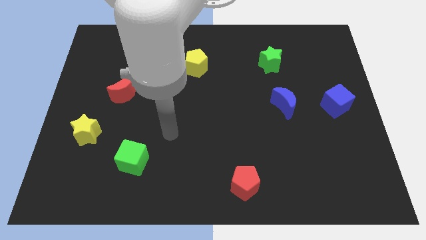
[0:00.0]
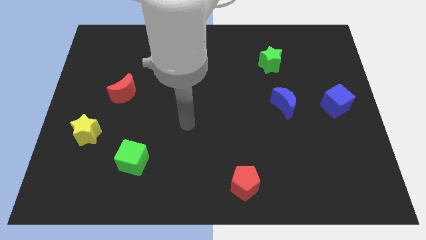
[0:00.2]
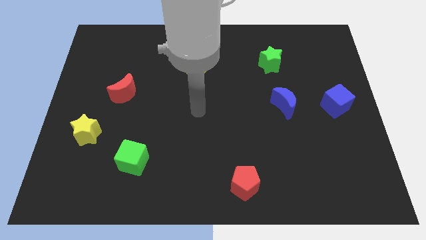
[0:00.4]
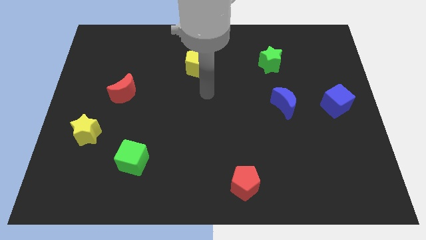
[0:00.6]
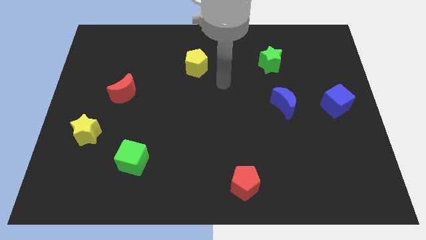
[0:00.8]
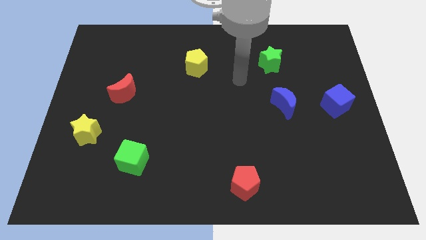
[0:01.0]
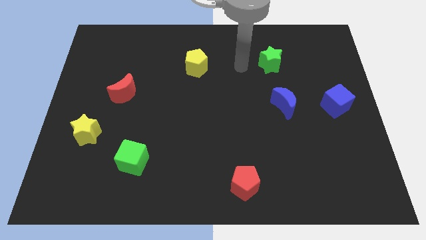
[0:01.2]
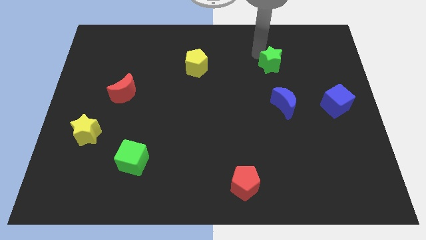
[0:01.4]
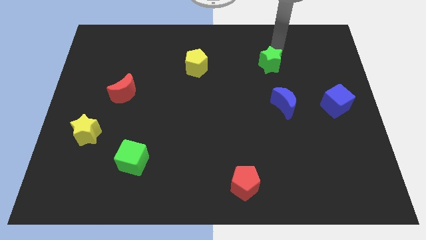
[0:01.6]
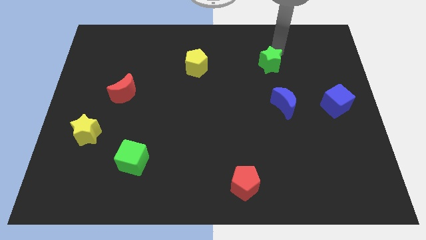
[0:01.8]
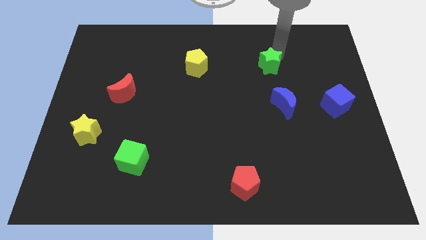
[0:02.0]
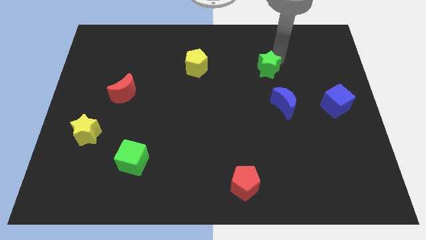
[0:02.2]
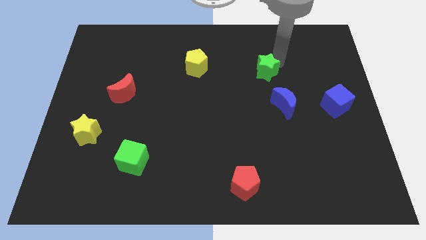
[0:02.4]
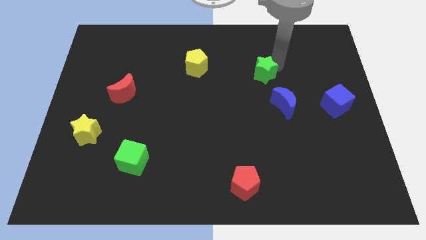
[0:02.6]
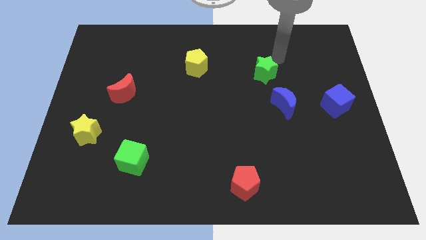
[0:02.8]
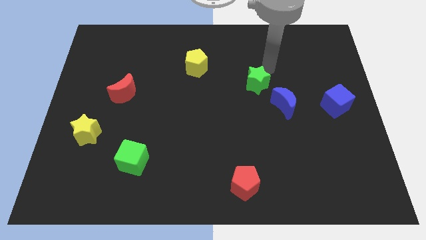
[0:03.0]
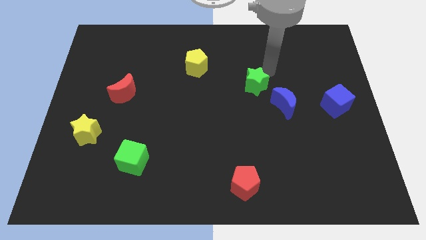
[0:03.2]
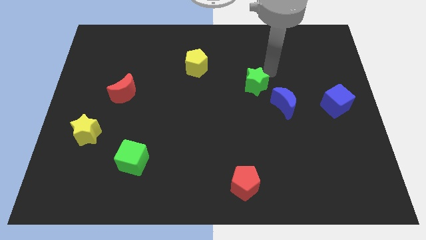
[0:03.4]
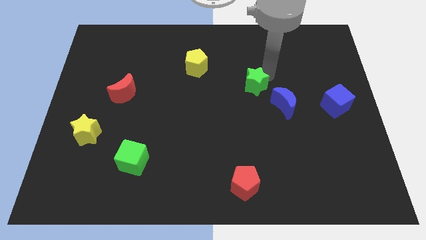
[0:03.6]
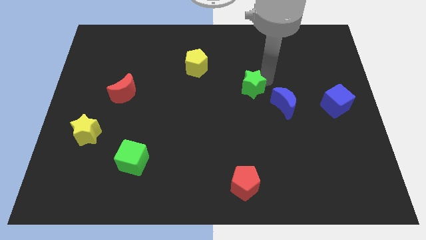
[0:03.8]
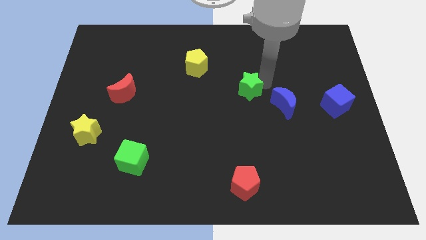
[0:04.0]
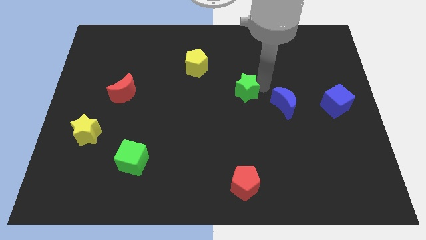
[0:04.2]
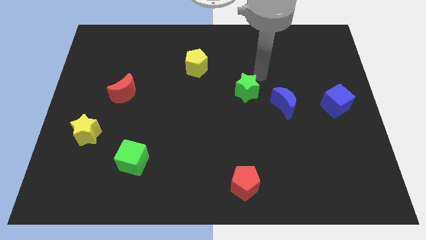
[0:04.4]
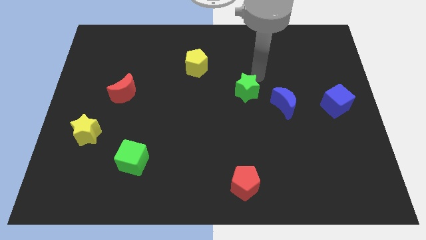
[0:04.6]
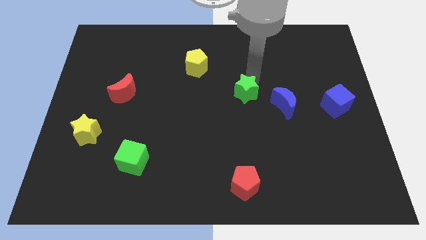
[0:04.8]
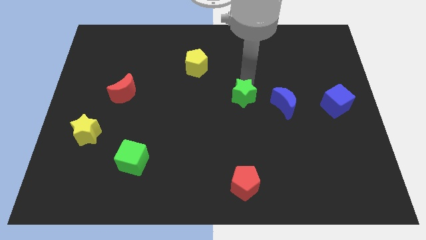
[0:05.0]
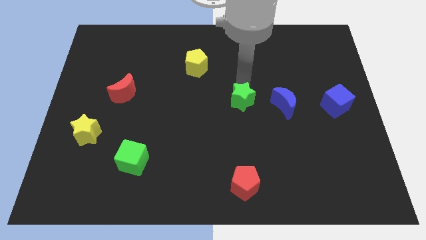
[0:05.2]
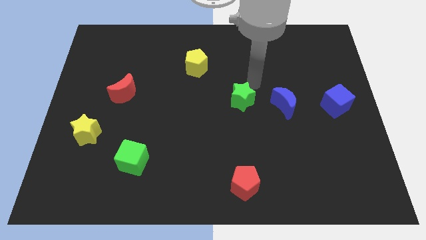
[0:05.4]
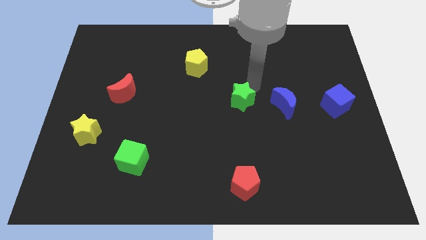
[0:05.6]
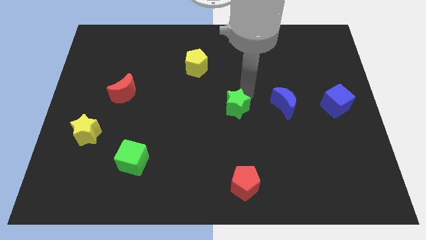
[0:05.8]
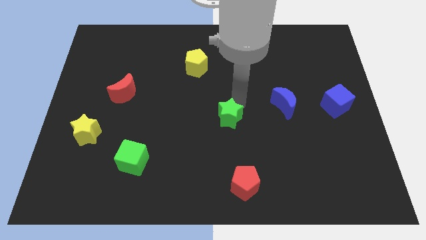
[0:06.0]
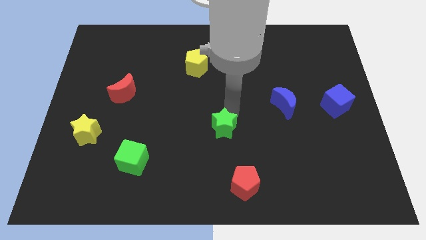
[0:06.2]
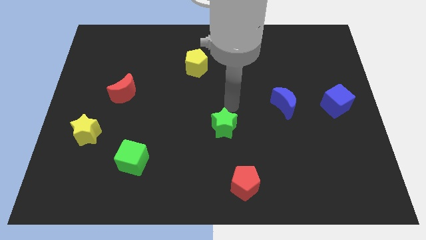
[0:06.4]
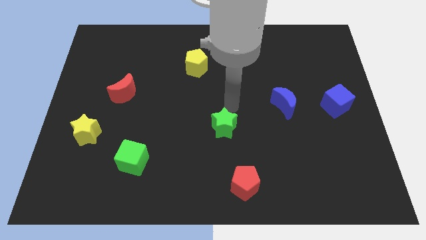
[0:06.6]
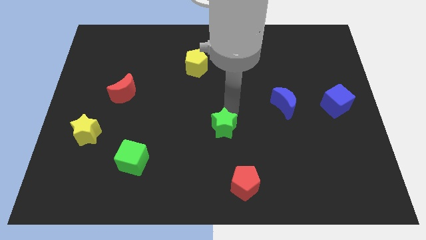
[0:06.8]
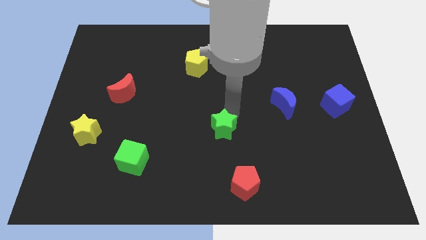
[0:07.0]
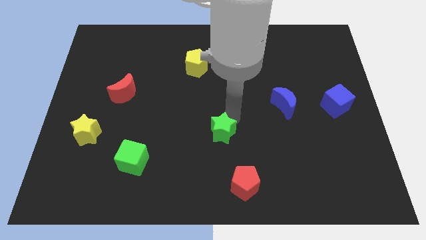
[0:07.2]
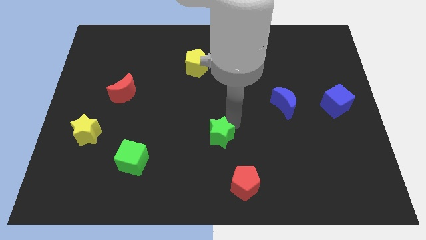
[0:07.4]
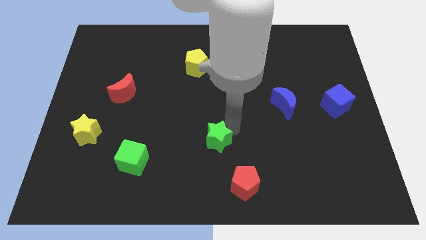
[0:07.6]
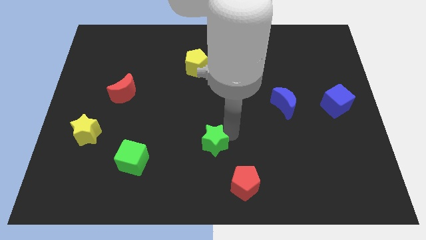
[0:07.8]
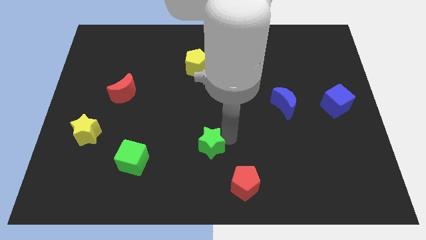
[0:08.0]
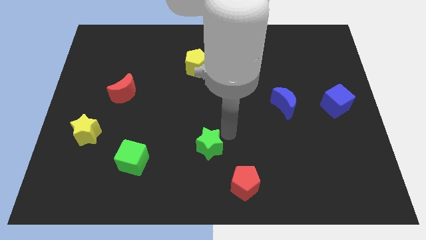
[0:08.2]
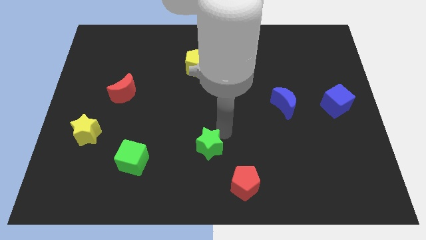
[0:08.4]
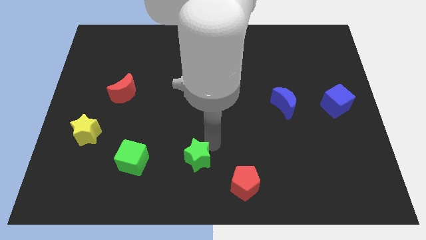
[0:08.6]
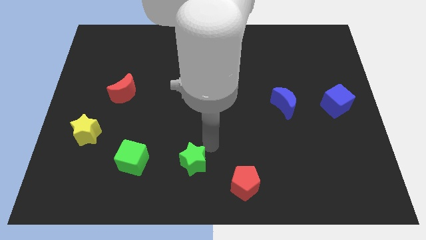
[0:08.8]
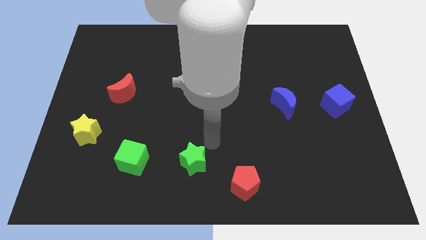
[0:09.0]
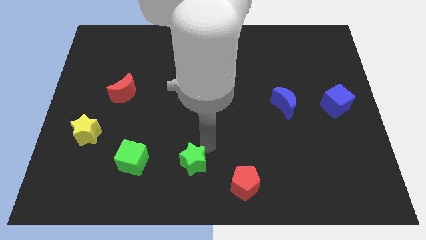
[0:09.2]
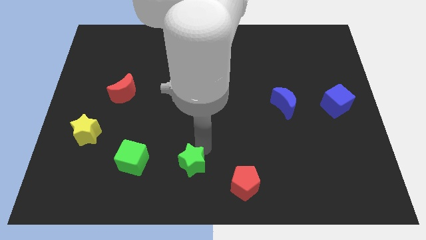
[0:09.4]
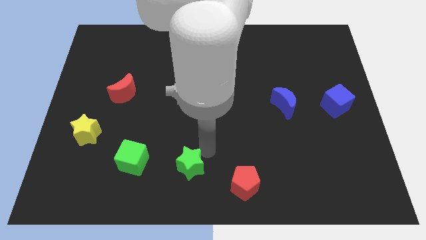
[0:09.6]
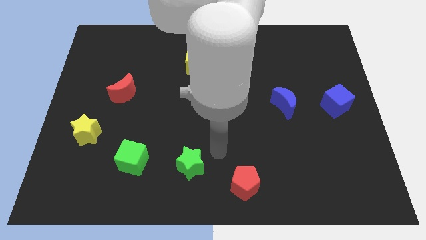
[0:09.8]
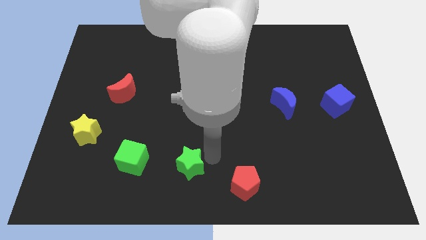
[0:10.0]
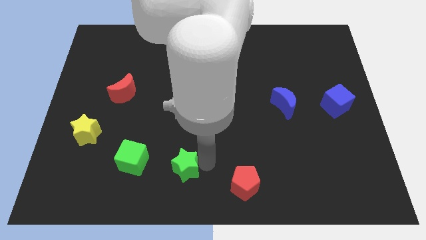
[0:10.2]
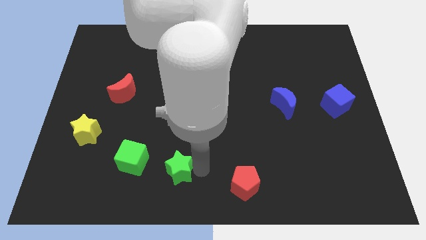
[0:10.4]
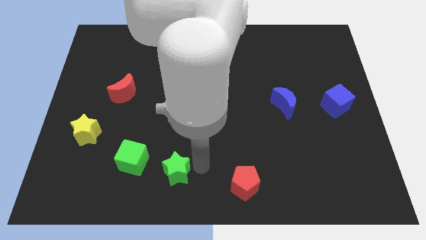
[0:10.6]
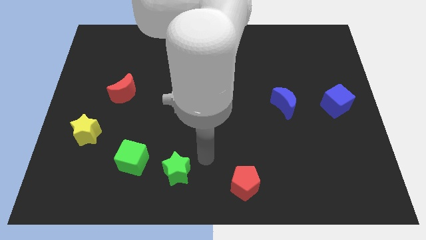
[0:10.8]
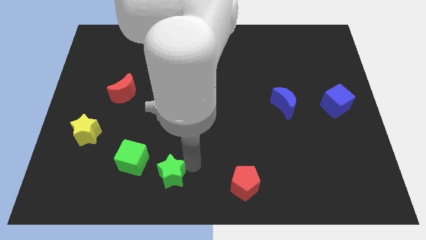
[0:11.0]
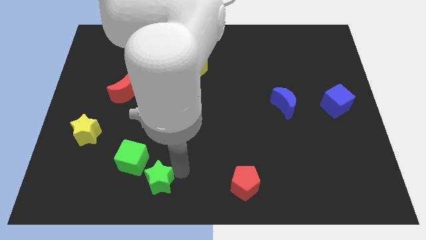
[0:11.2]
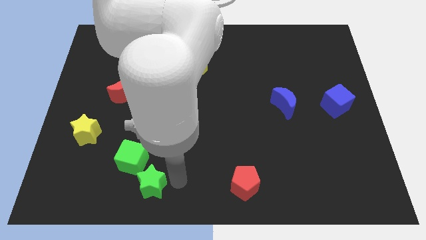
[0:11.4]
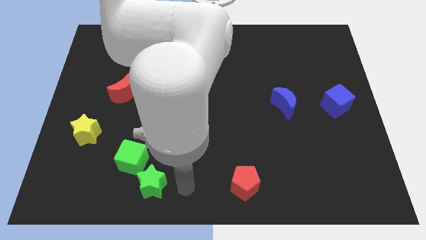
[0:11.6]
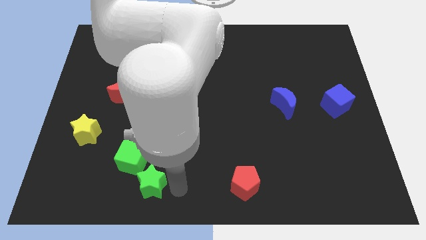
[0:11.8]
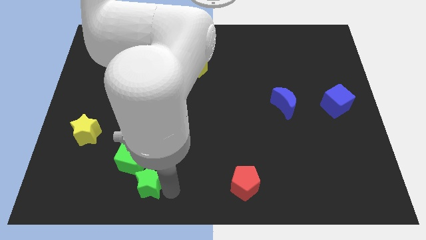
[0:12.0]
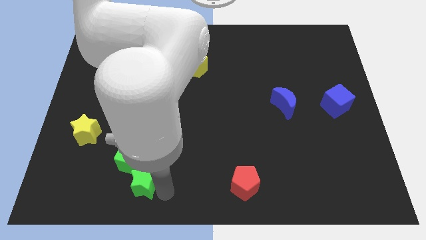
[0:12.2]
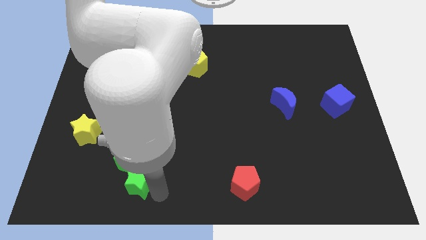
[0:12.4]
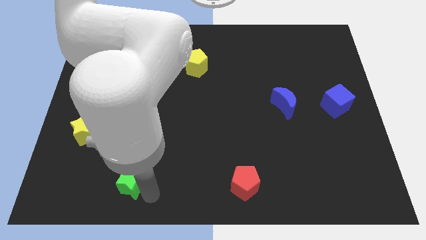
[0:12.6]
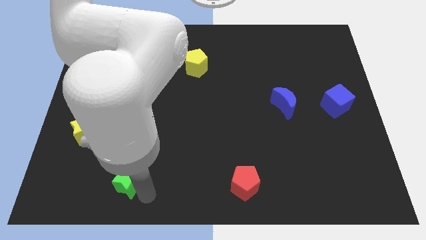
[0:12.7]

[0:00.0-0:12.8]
push the green star diagonally down and to the left of the green cube

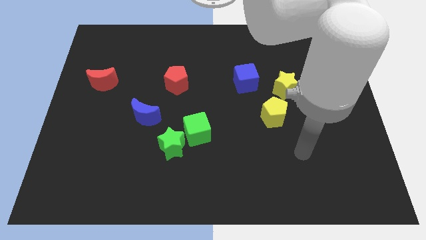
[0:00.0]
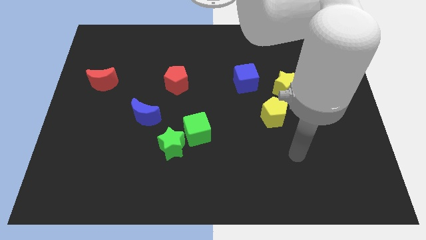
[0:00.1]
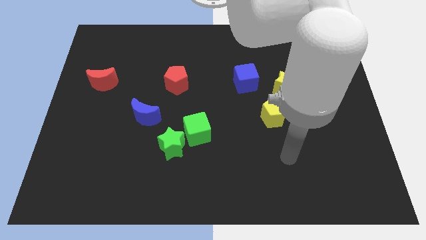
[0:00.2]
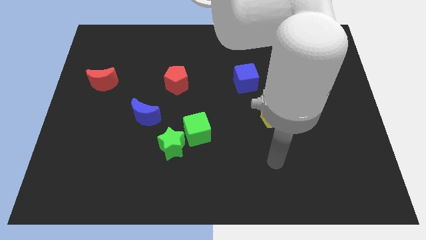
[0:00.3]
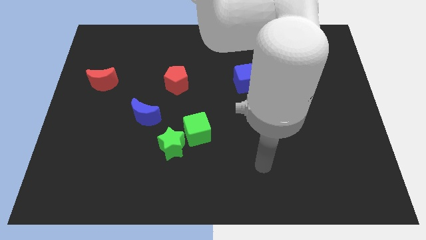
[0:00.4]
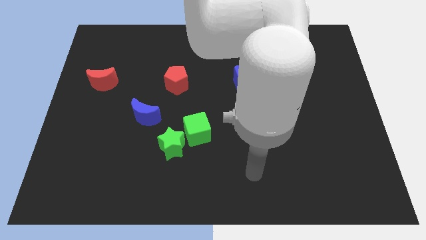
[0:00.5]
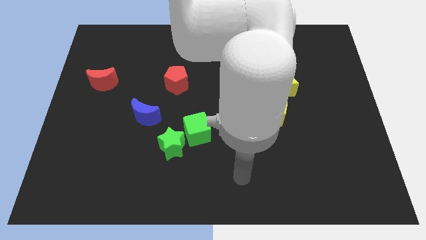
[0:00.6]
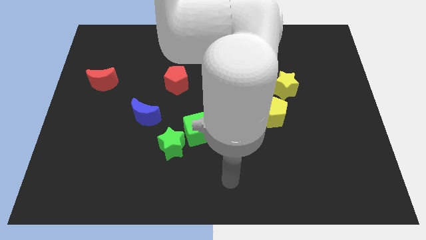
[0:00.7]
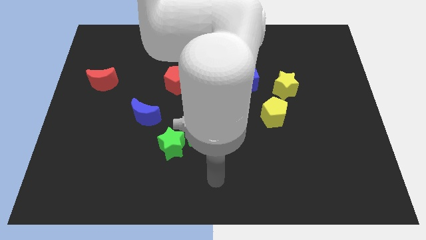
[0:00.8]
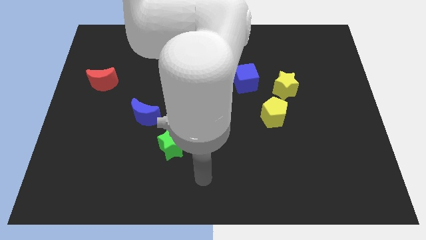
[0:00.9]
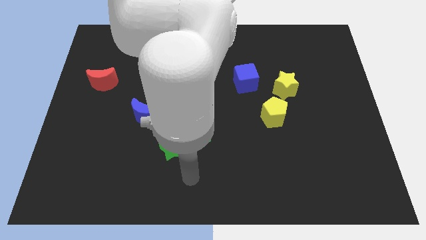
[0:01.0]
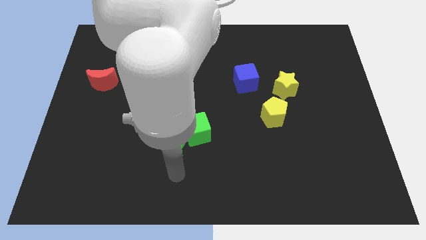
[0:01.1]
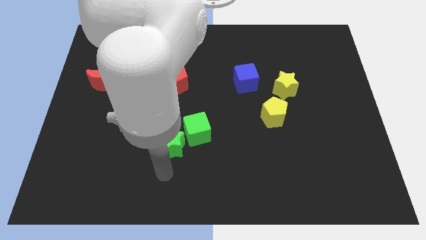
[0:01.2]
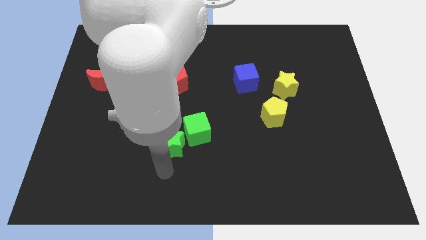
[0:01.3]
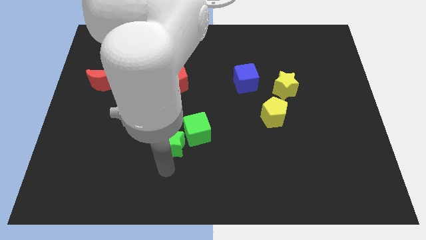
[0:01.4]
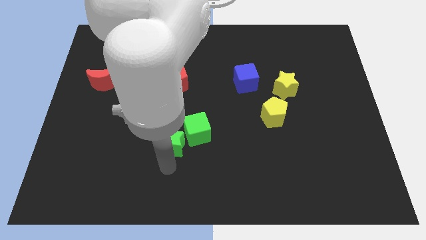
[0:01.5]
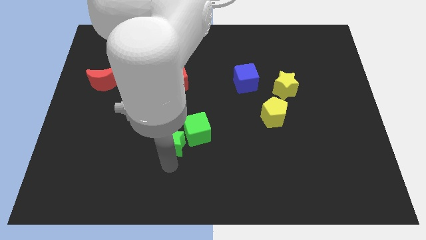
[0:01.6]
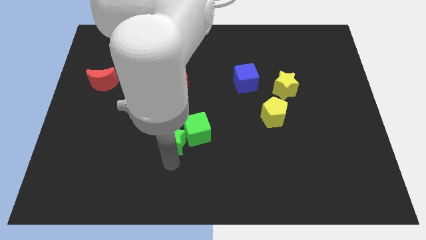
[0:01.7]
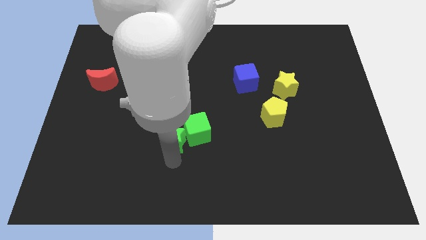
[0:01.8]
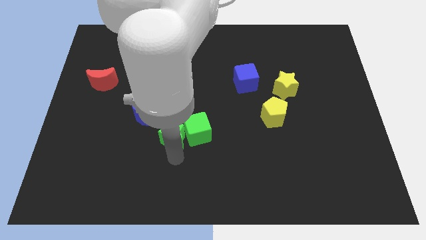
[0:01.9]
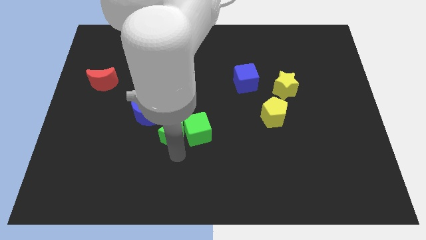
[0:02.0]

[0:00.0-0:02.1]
move the green star to the top left of the green cube
